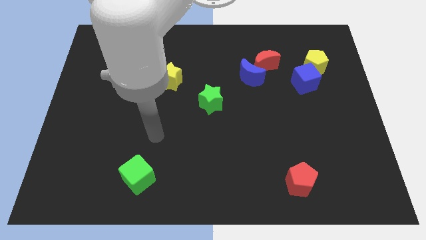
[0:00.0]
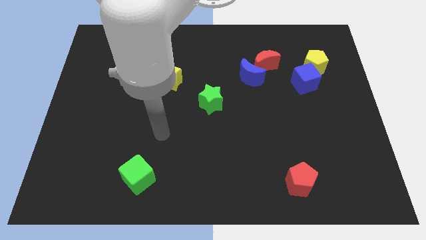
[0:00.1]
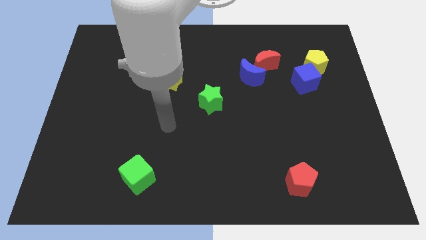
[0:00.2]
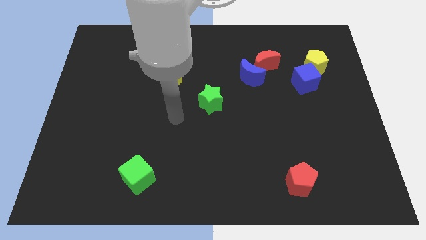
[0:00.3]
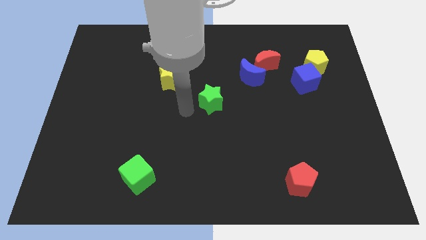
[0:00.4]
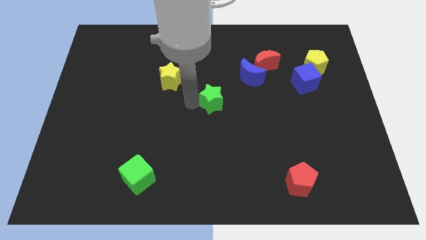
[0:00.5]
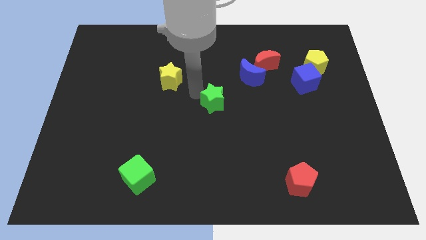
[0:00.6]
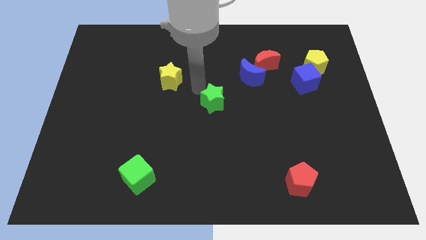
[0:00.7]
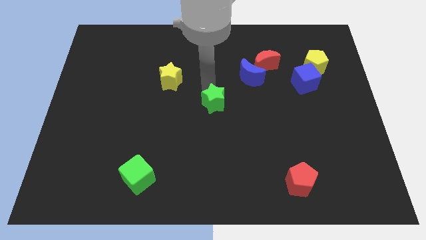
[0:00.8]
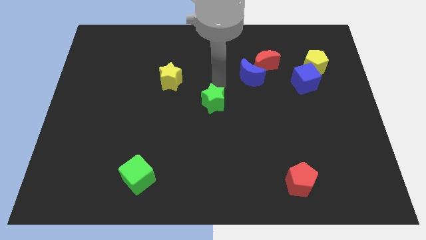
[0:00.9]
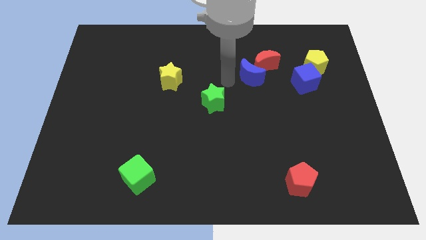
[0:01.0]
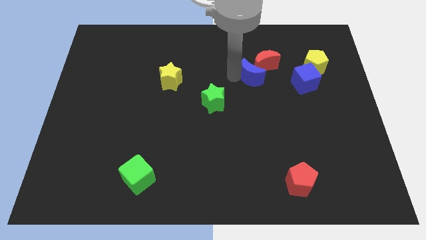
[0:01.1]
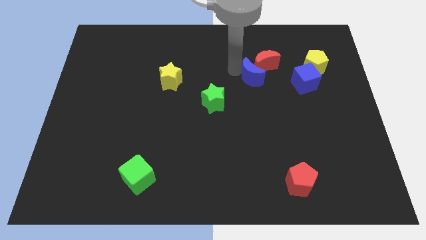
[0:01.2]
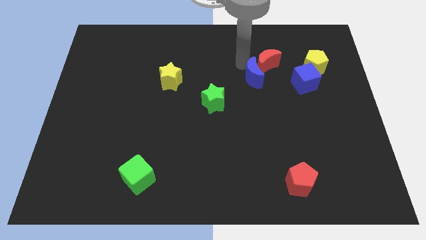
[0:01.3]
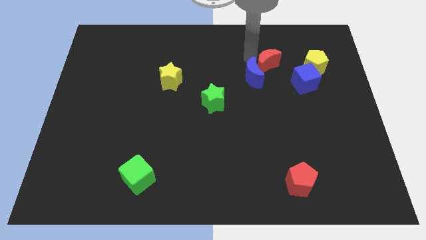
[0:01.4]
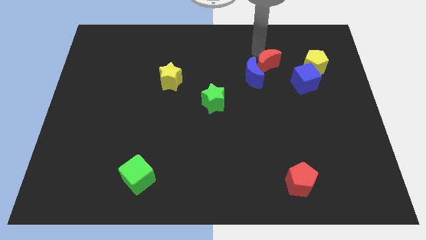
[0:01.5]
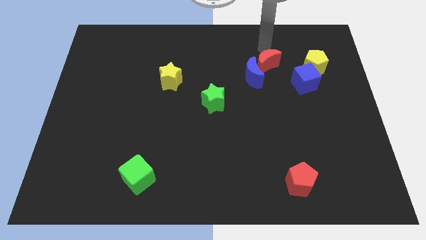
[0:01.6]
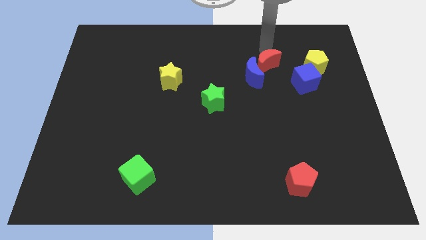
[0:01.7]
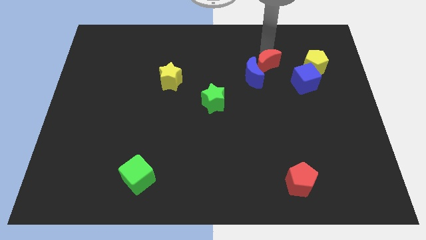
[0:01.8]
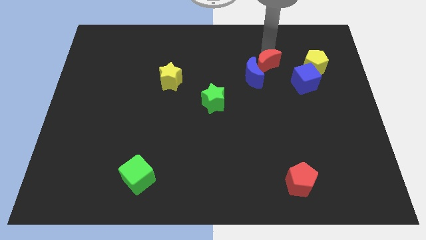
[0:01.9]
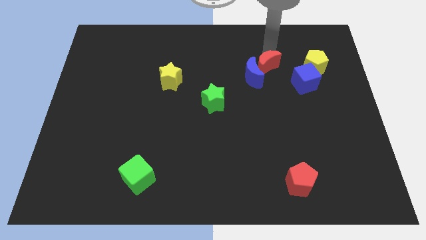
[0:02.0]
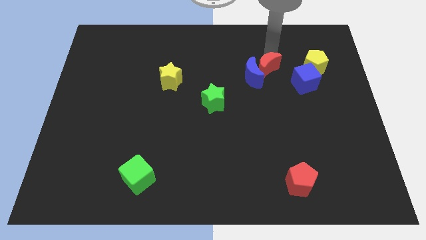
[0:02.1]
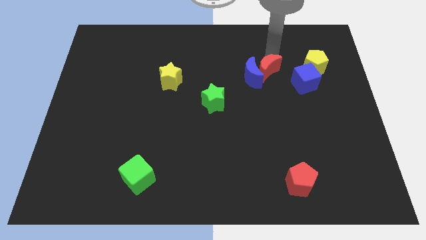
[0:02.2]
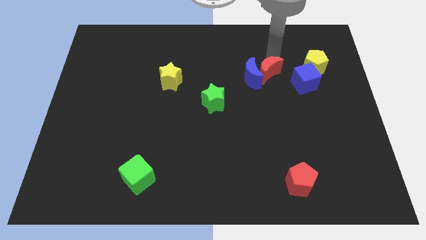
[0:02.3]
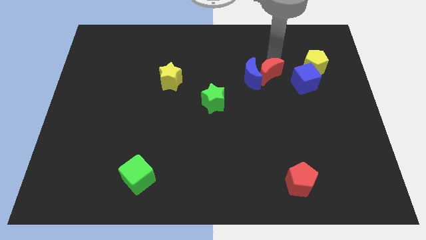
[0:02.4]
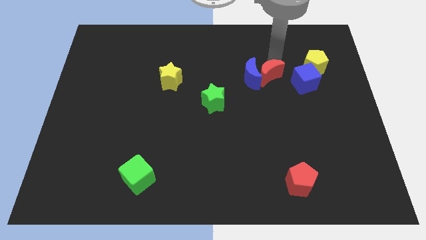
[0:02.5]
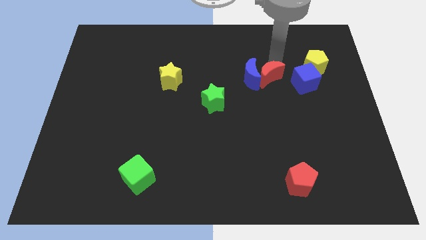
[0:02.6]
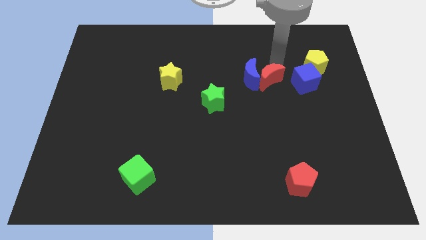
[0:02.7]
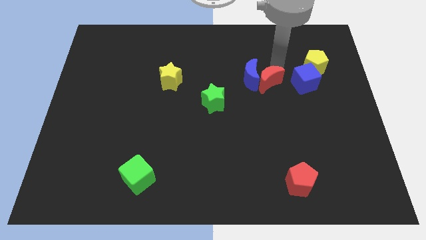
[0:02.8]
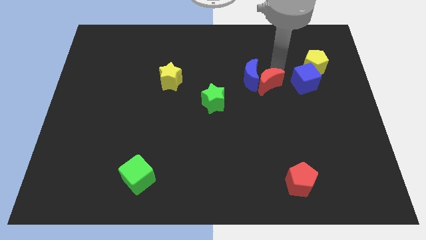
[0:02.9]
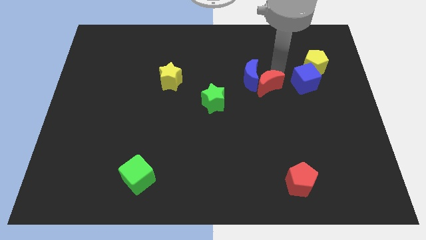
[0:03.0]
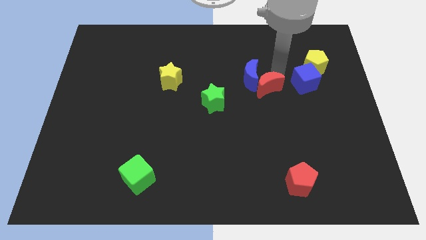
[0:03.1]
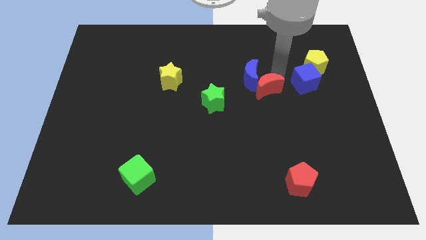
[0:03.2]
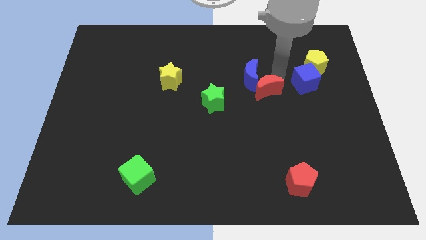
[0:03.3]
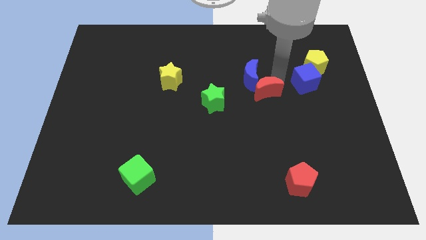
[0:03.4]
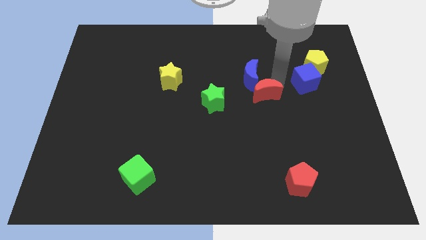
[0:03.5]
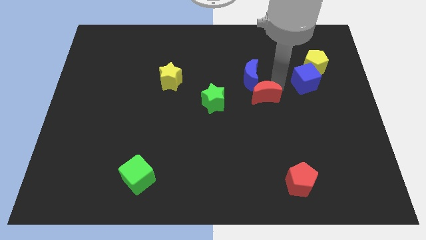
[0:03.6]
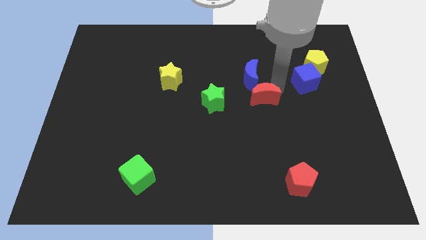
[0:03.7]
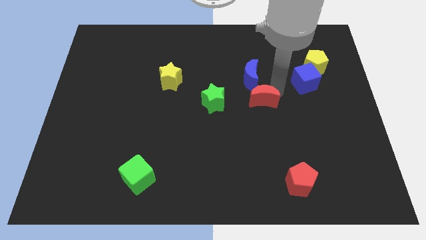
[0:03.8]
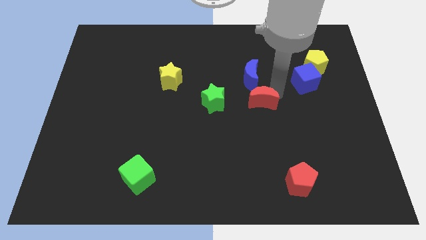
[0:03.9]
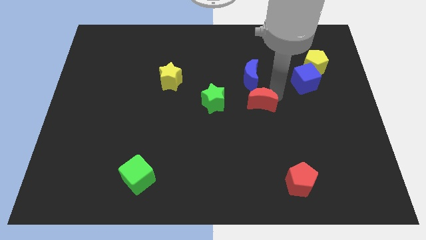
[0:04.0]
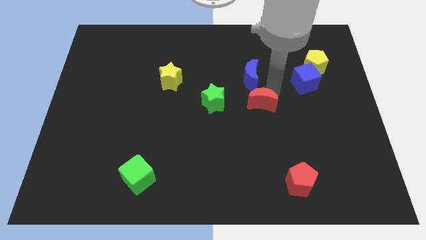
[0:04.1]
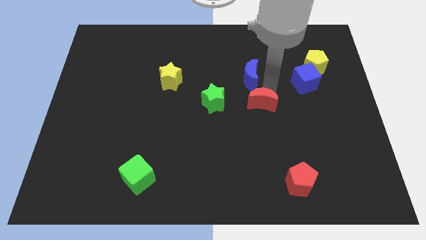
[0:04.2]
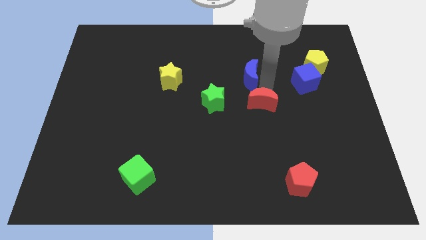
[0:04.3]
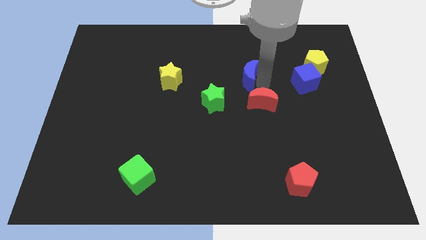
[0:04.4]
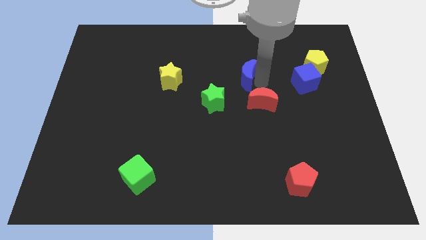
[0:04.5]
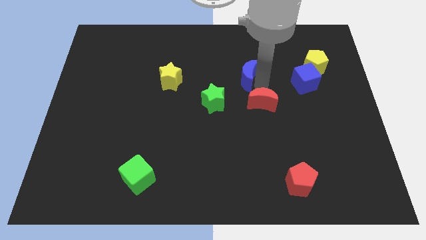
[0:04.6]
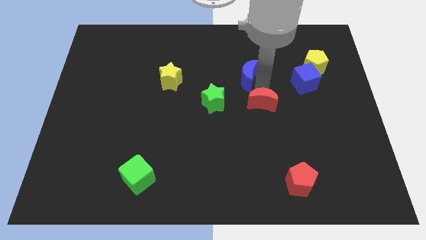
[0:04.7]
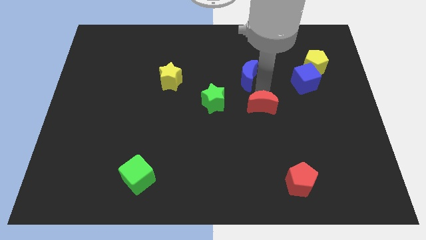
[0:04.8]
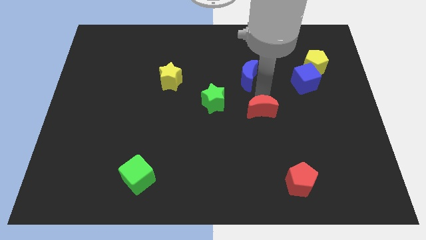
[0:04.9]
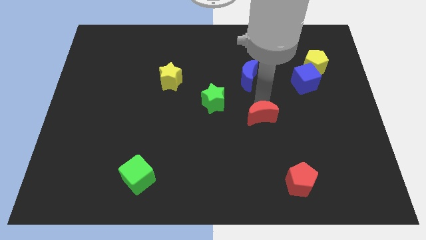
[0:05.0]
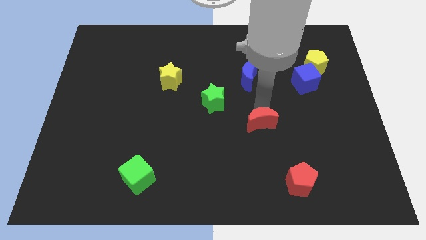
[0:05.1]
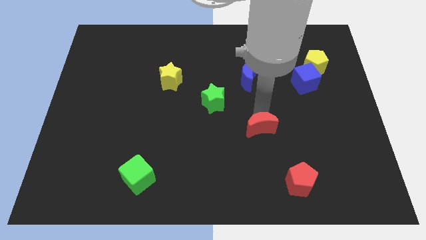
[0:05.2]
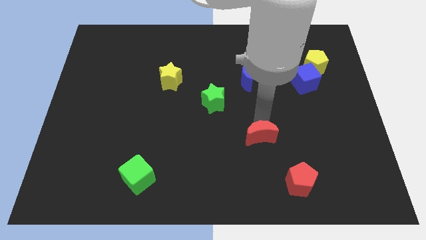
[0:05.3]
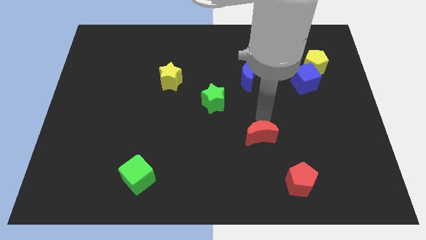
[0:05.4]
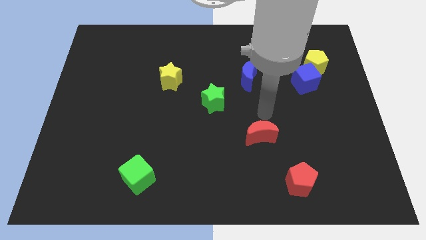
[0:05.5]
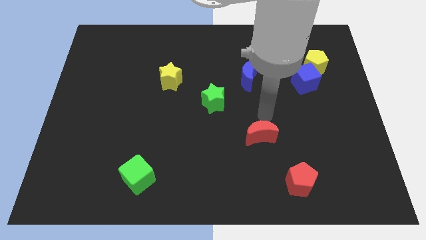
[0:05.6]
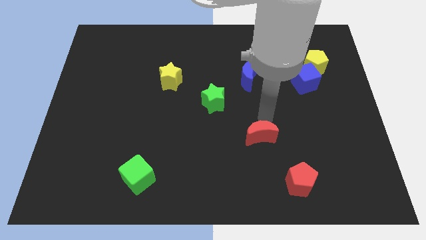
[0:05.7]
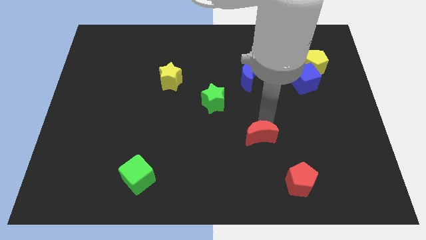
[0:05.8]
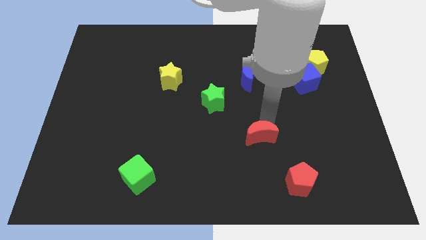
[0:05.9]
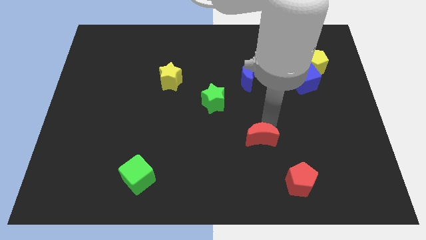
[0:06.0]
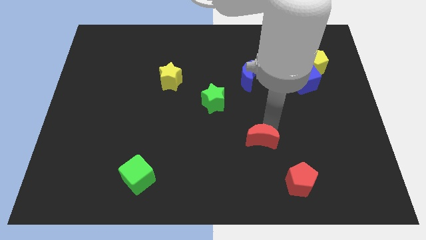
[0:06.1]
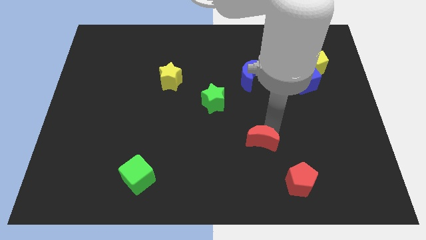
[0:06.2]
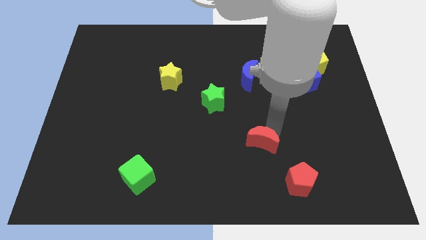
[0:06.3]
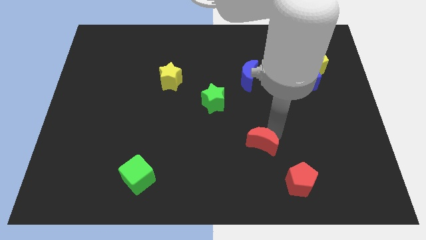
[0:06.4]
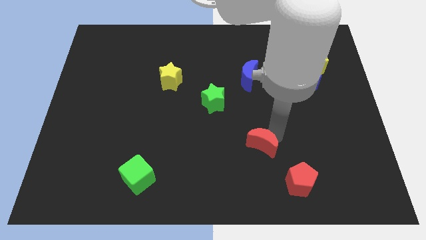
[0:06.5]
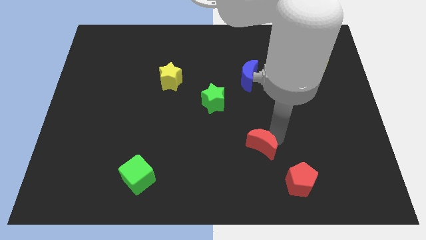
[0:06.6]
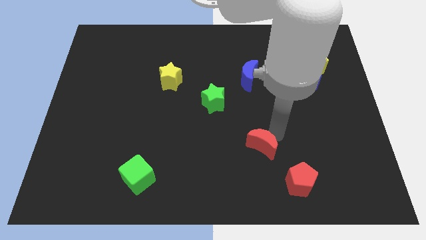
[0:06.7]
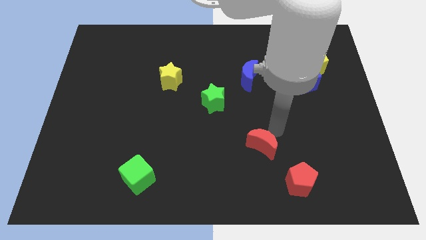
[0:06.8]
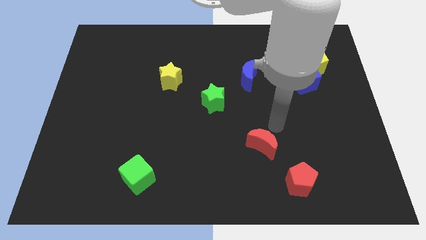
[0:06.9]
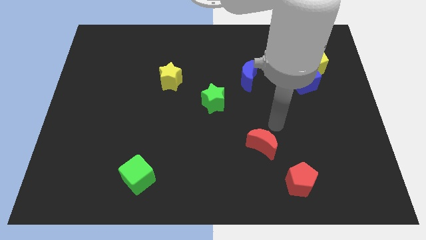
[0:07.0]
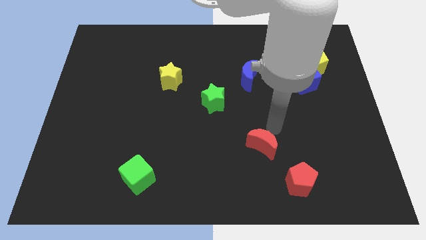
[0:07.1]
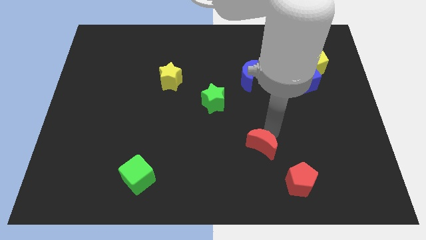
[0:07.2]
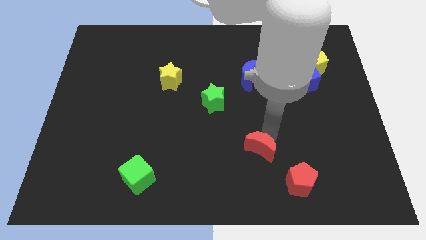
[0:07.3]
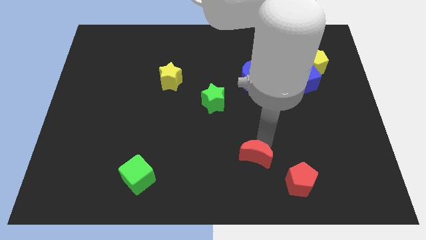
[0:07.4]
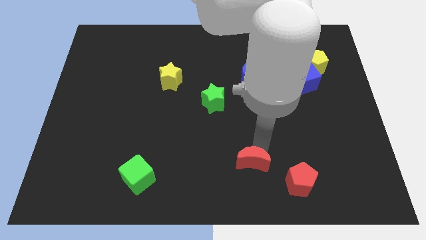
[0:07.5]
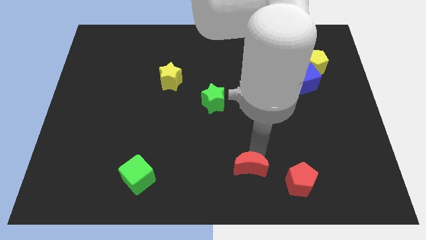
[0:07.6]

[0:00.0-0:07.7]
move the red moon to the bottom side
